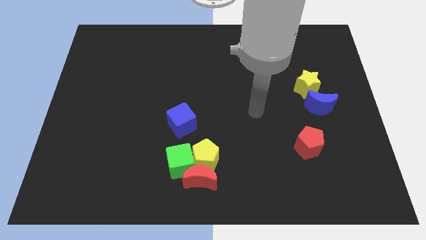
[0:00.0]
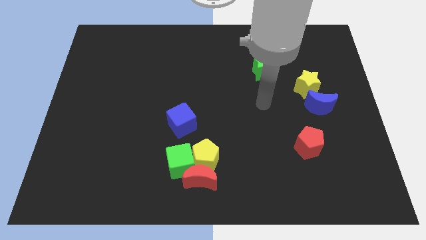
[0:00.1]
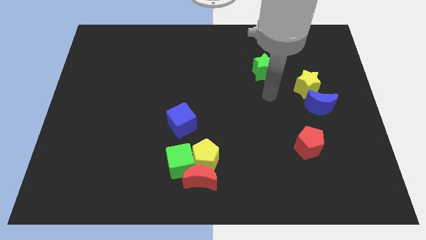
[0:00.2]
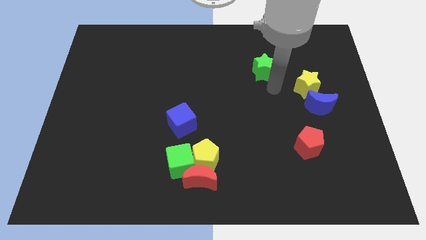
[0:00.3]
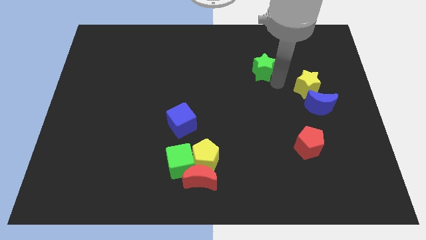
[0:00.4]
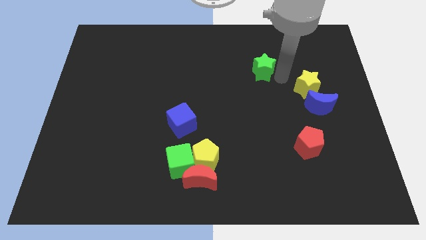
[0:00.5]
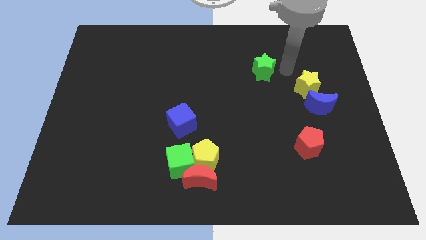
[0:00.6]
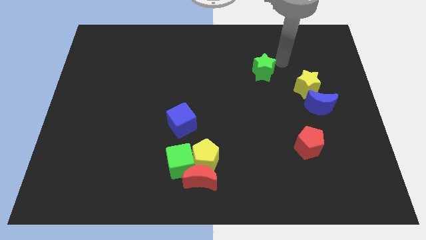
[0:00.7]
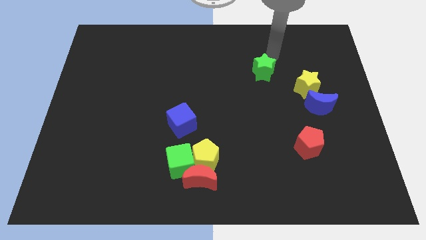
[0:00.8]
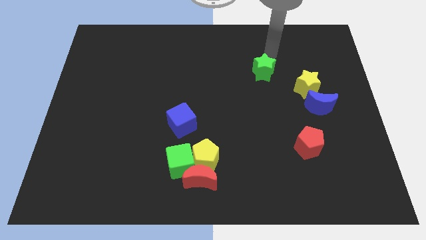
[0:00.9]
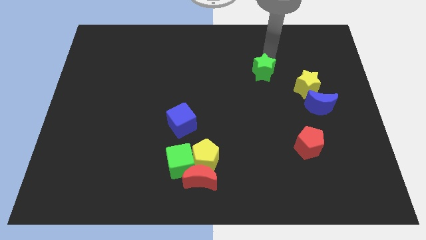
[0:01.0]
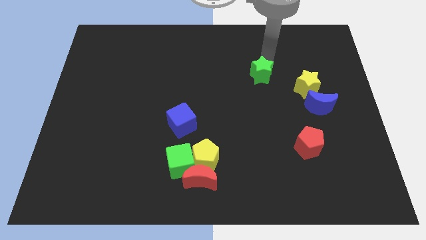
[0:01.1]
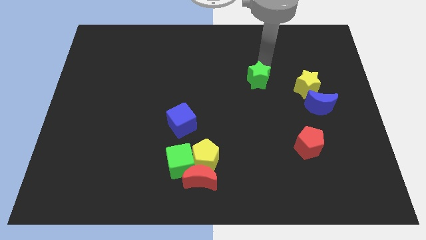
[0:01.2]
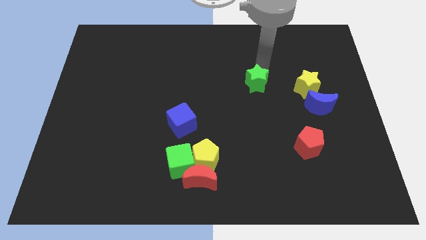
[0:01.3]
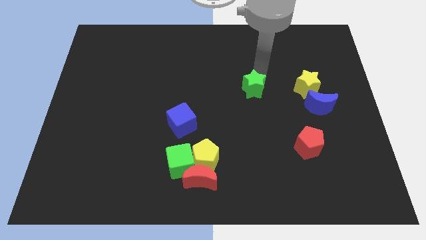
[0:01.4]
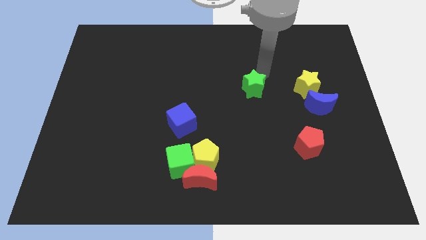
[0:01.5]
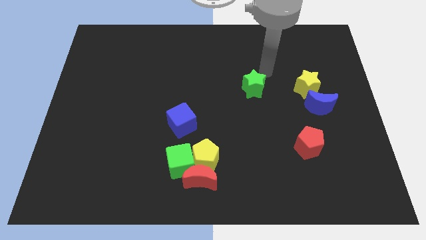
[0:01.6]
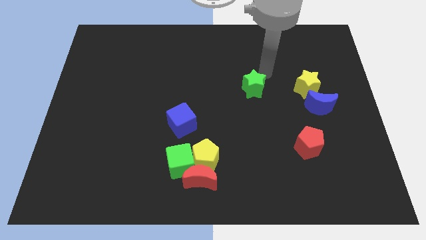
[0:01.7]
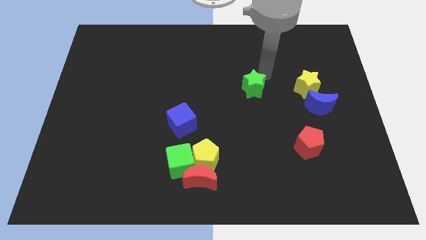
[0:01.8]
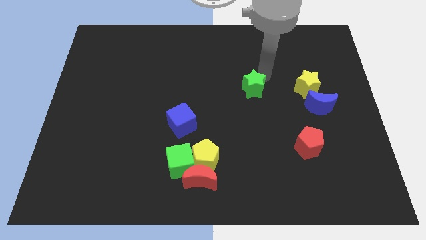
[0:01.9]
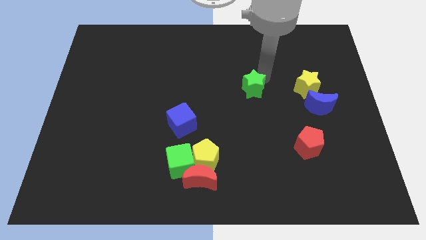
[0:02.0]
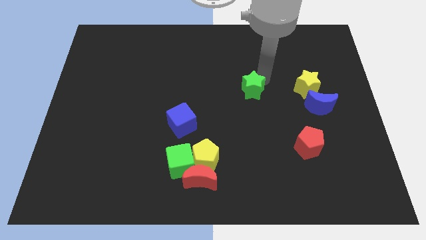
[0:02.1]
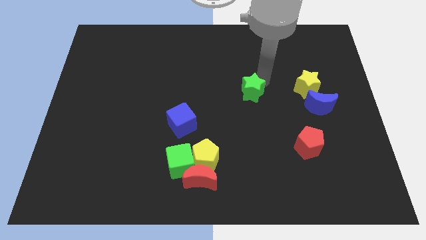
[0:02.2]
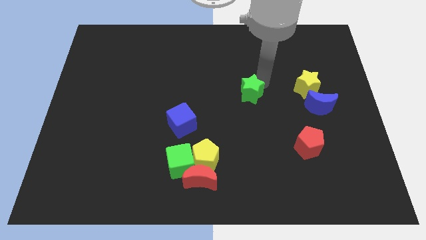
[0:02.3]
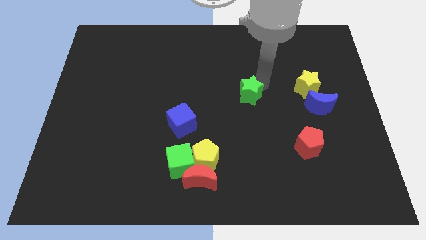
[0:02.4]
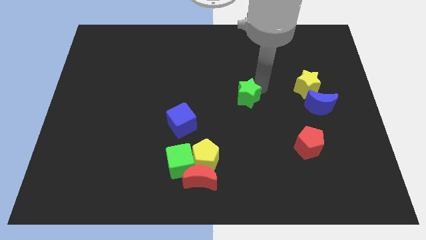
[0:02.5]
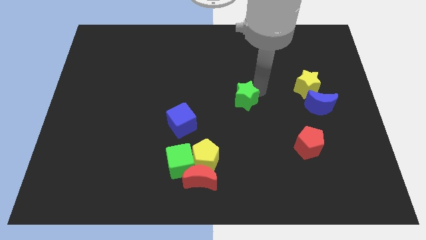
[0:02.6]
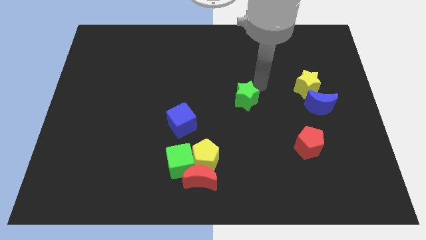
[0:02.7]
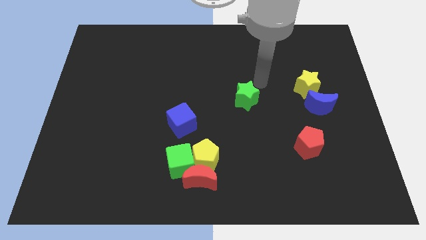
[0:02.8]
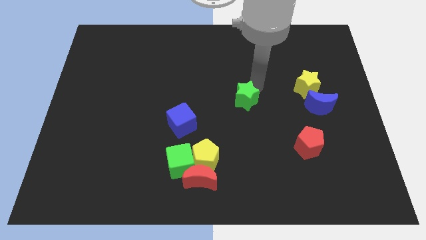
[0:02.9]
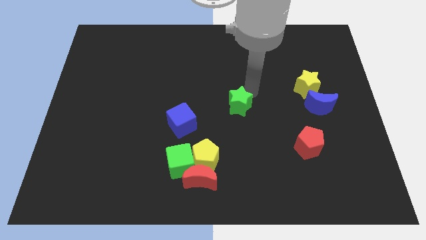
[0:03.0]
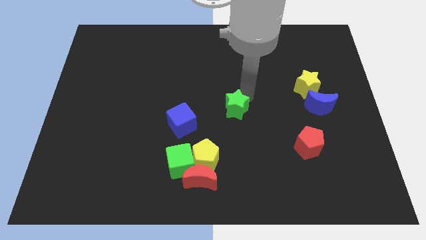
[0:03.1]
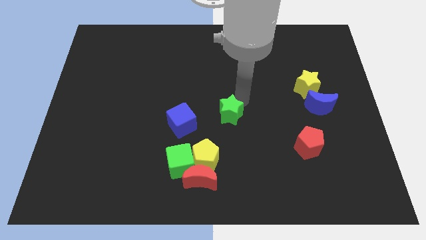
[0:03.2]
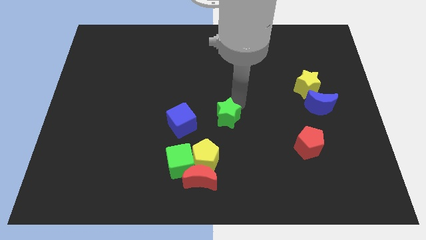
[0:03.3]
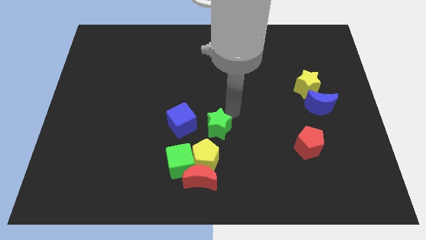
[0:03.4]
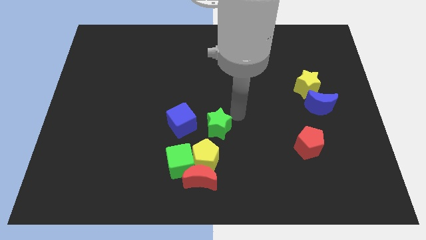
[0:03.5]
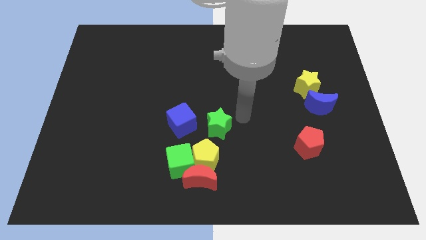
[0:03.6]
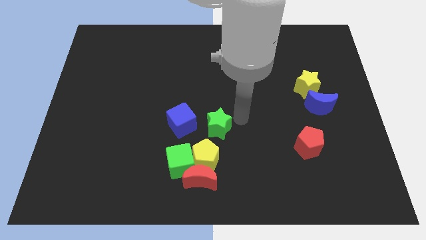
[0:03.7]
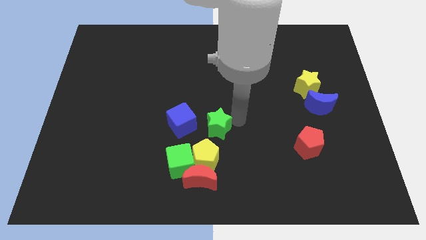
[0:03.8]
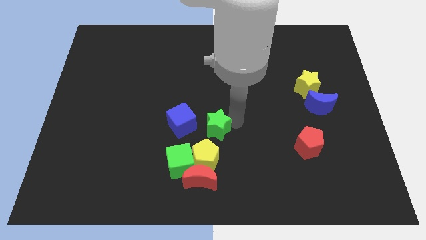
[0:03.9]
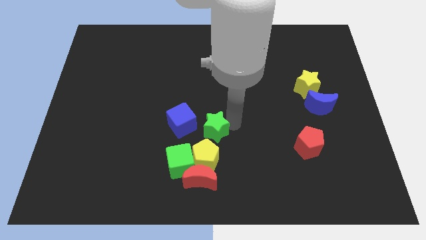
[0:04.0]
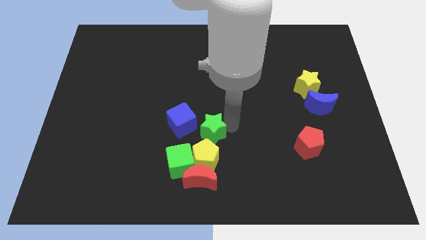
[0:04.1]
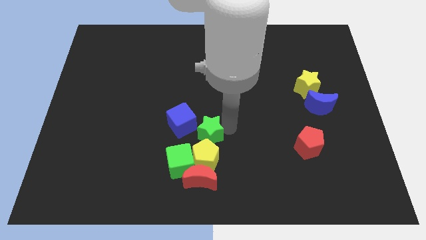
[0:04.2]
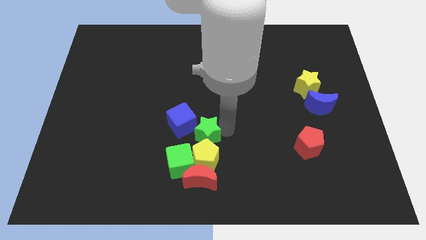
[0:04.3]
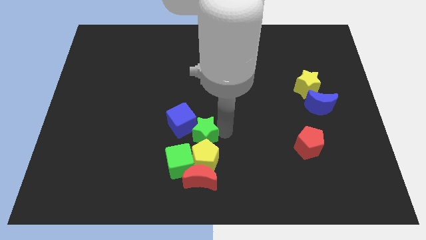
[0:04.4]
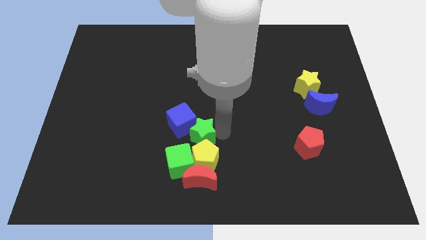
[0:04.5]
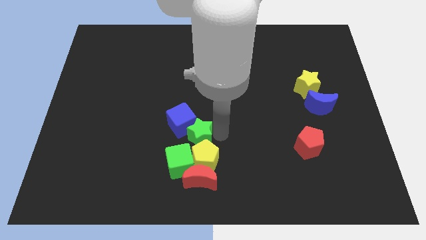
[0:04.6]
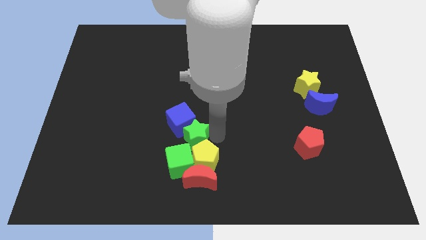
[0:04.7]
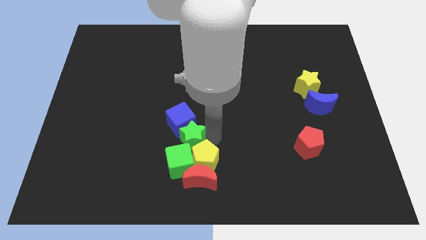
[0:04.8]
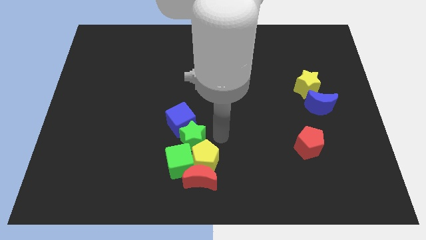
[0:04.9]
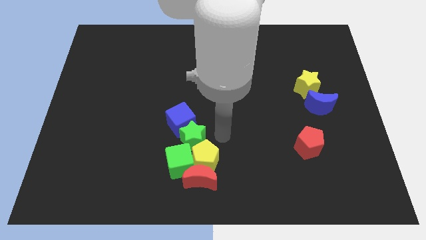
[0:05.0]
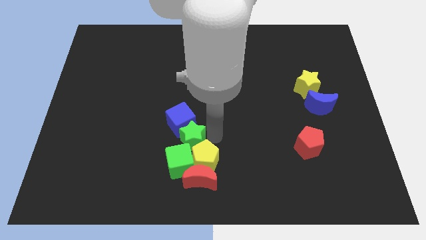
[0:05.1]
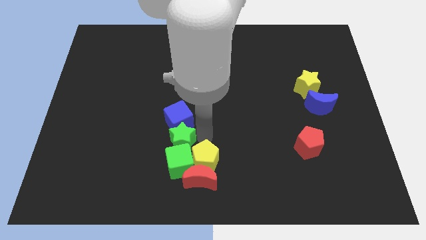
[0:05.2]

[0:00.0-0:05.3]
slide the green star diagonally down and to the left of the blue cube

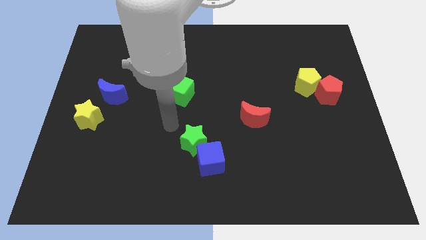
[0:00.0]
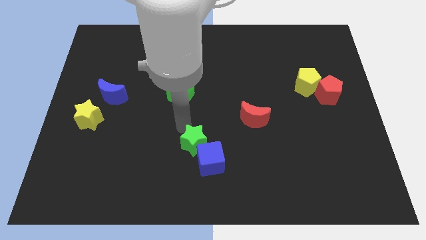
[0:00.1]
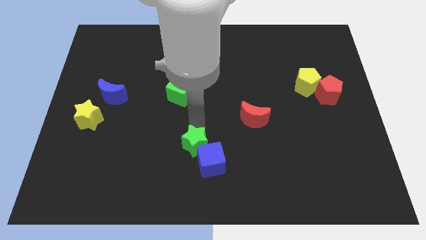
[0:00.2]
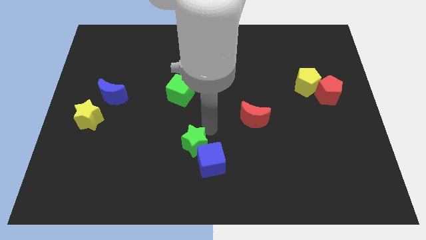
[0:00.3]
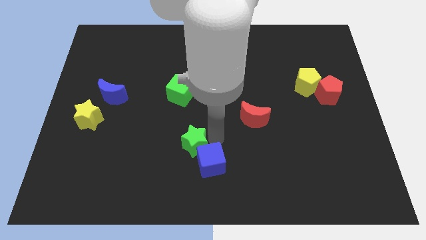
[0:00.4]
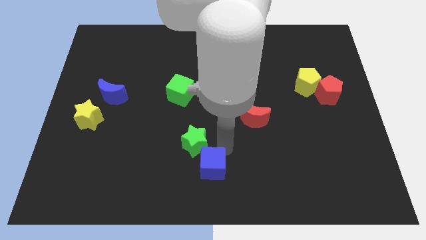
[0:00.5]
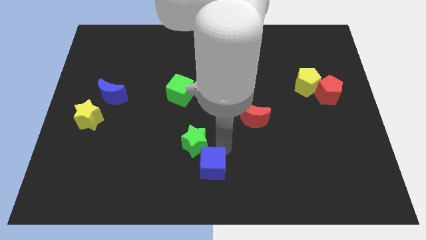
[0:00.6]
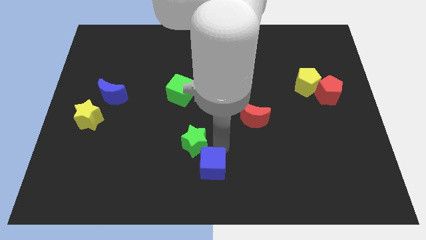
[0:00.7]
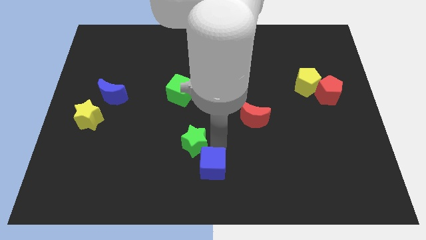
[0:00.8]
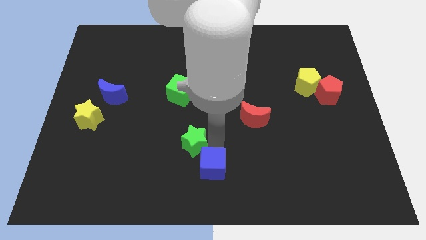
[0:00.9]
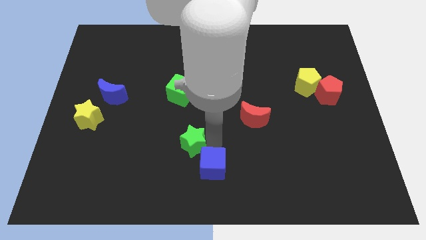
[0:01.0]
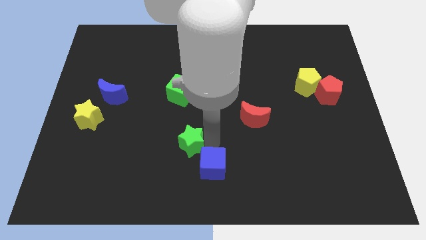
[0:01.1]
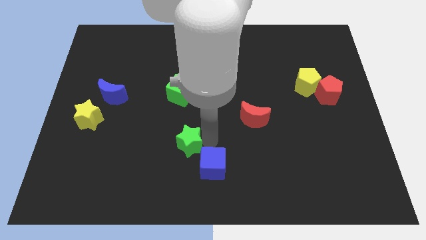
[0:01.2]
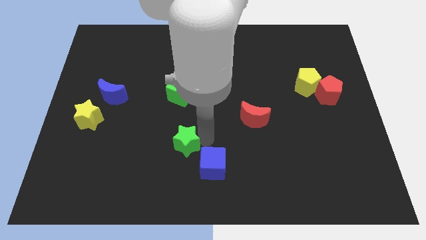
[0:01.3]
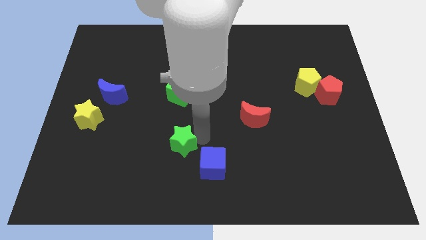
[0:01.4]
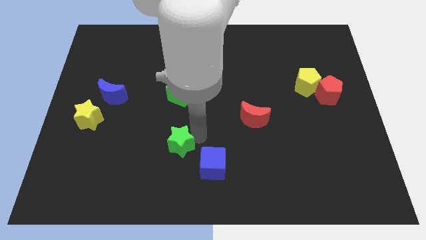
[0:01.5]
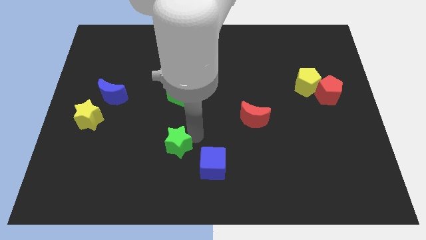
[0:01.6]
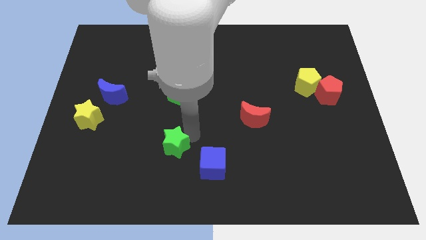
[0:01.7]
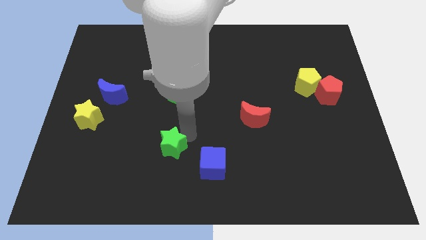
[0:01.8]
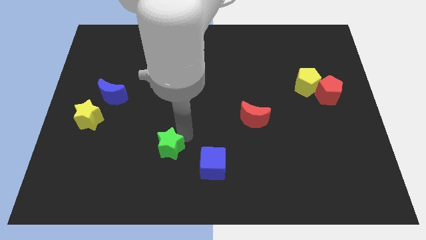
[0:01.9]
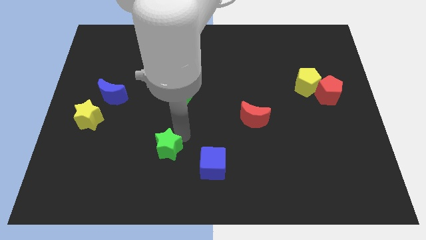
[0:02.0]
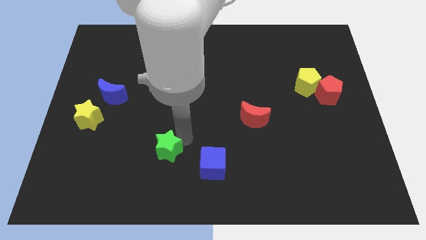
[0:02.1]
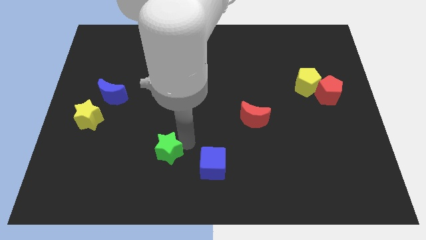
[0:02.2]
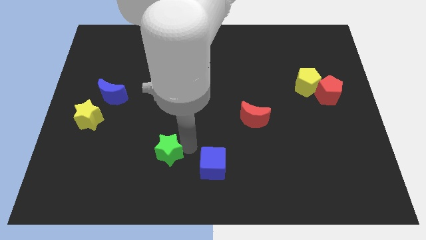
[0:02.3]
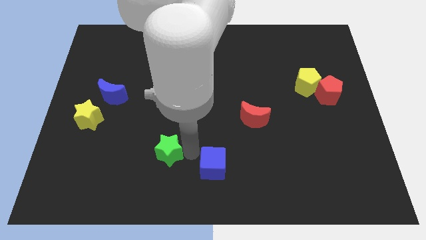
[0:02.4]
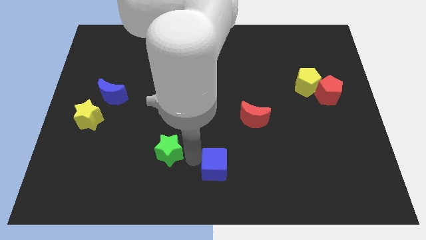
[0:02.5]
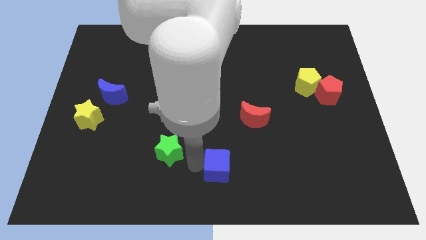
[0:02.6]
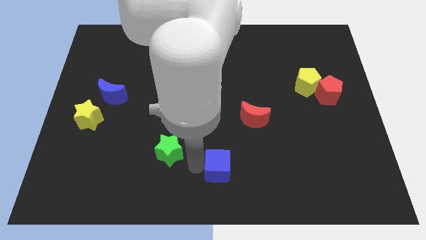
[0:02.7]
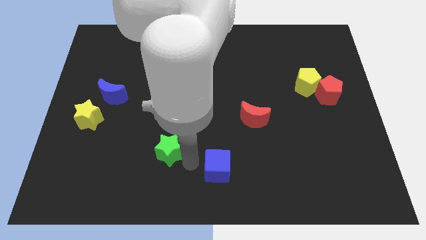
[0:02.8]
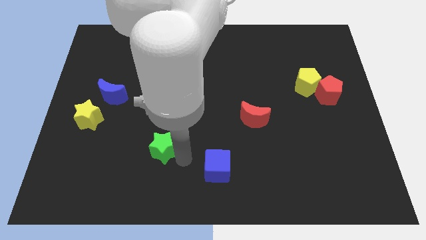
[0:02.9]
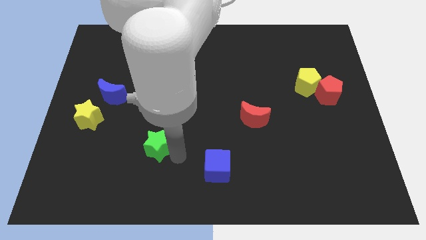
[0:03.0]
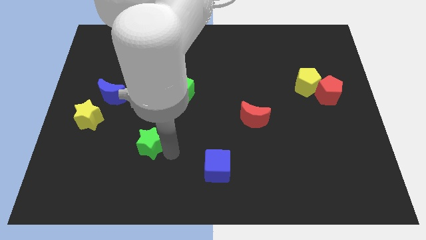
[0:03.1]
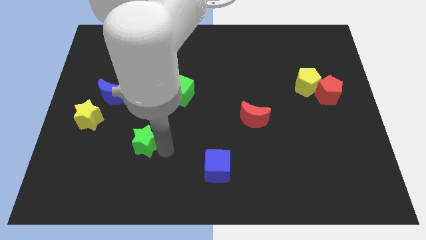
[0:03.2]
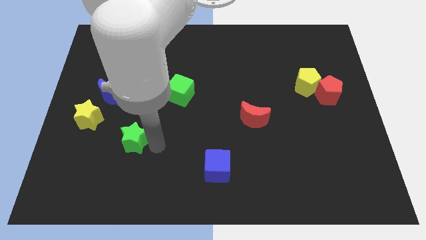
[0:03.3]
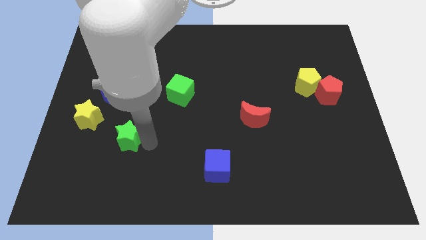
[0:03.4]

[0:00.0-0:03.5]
slide the green star to the bottom right of the yellow star

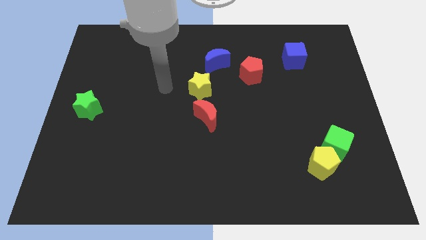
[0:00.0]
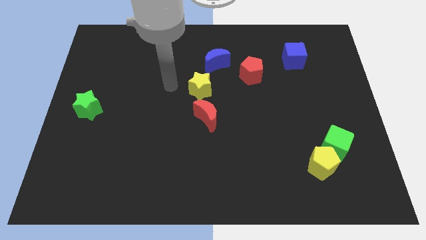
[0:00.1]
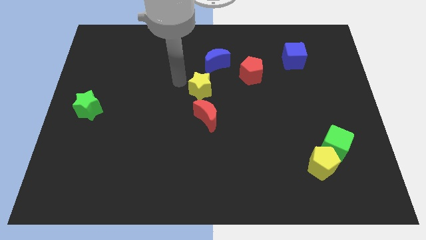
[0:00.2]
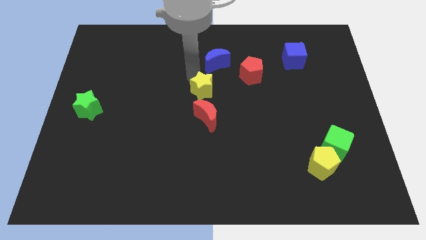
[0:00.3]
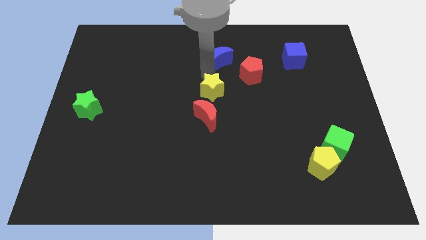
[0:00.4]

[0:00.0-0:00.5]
put the red pentagon diagonally up and to the right of the yellow star
